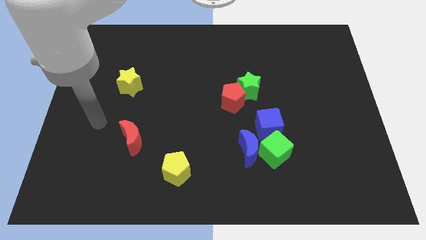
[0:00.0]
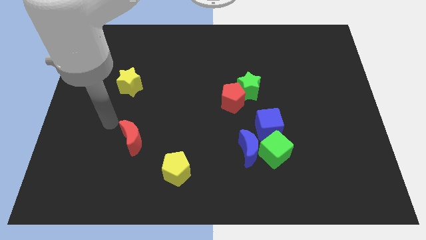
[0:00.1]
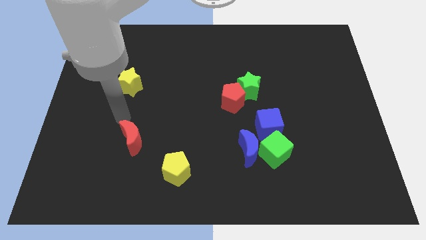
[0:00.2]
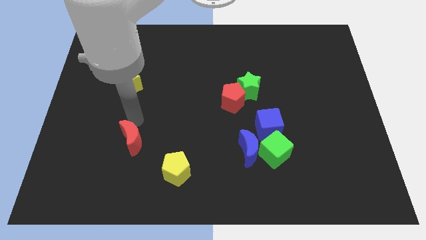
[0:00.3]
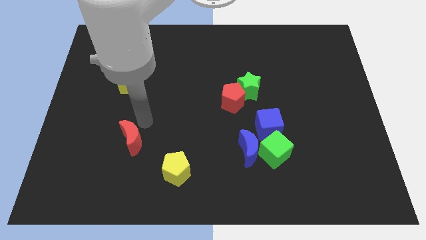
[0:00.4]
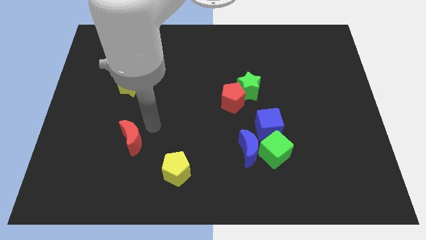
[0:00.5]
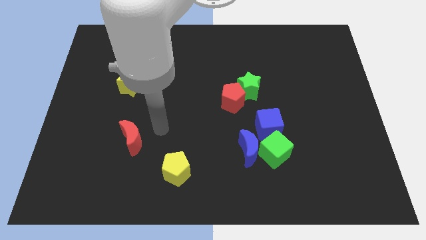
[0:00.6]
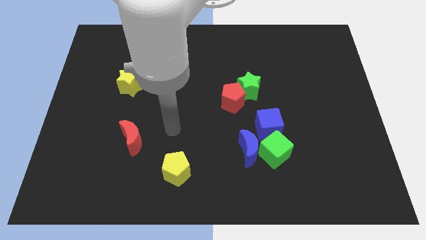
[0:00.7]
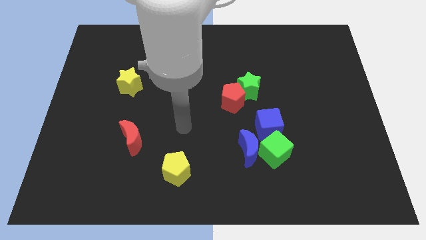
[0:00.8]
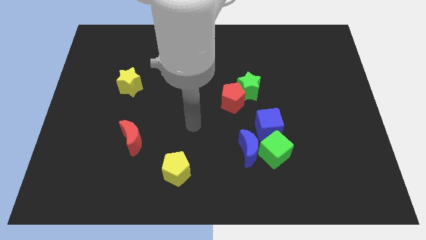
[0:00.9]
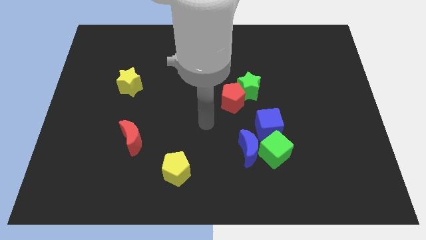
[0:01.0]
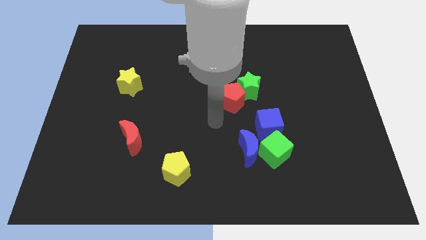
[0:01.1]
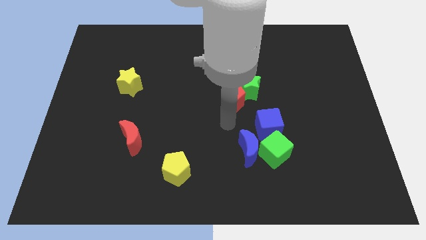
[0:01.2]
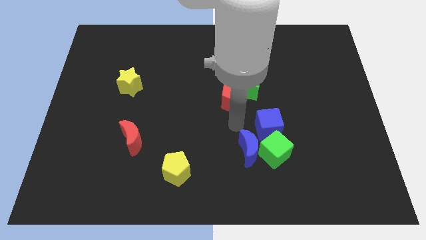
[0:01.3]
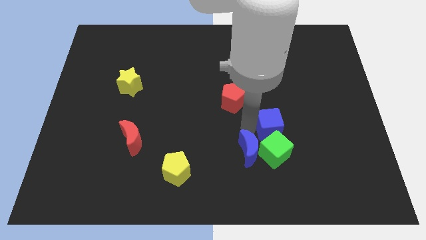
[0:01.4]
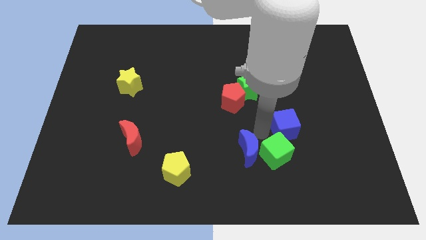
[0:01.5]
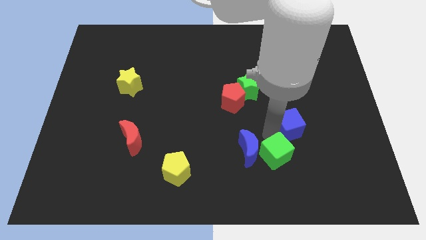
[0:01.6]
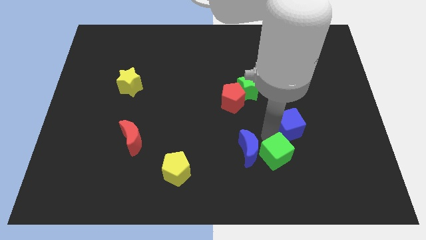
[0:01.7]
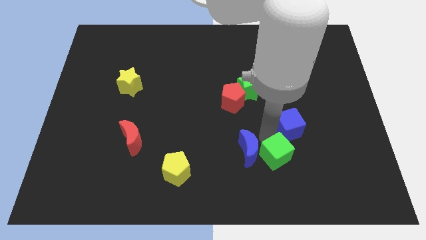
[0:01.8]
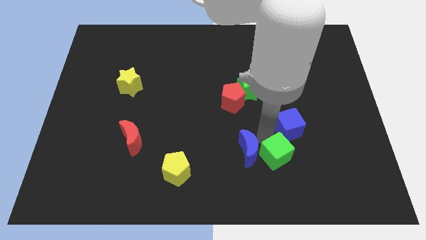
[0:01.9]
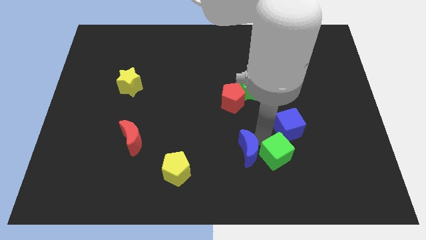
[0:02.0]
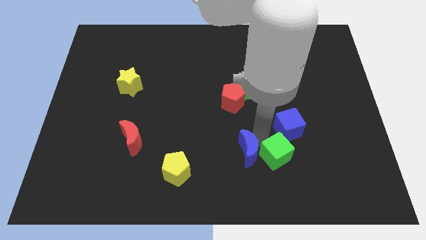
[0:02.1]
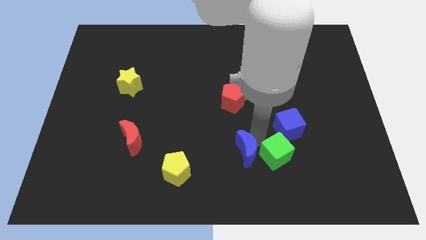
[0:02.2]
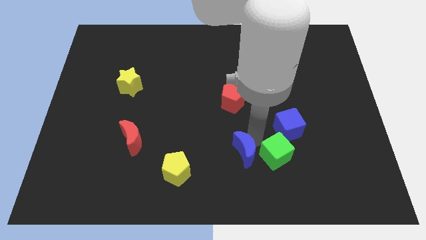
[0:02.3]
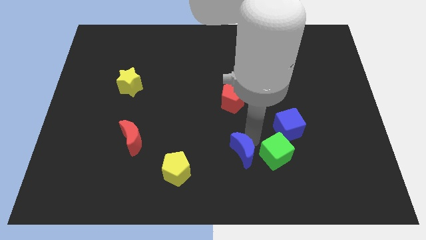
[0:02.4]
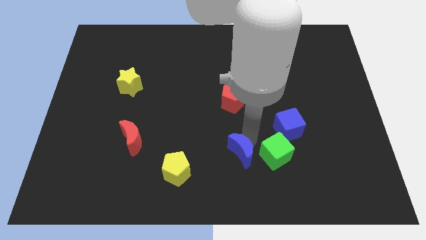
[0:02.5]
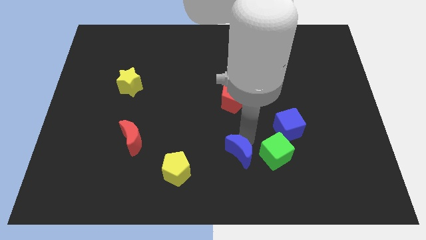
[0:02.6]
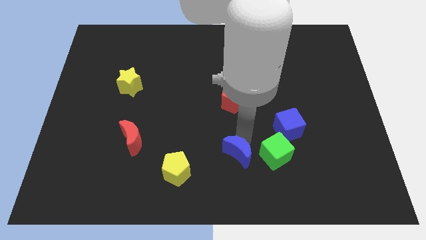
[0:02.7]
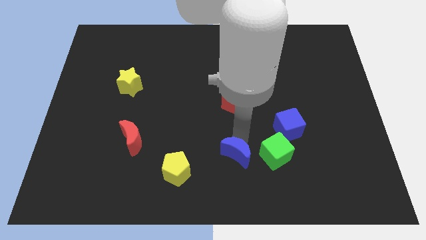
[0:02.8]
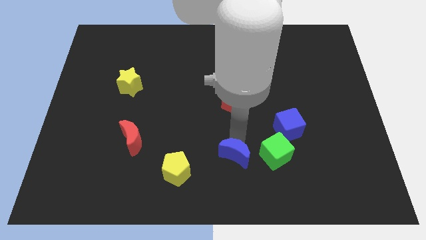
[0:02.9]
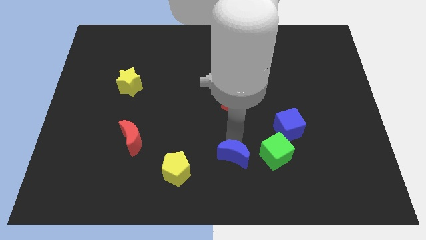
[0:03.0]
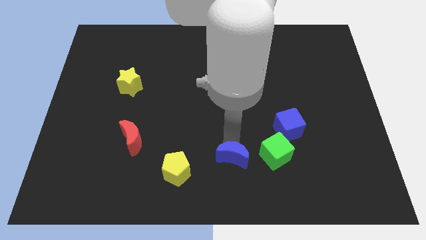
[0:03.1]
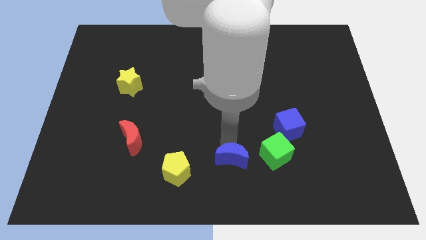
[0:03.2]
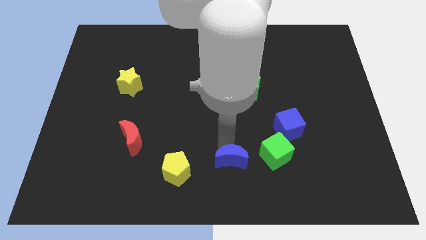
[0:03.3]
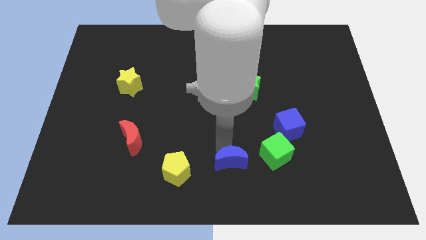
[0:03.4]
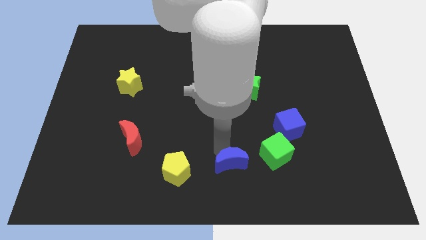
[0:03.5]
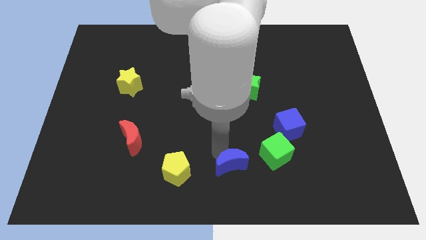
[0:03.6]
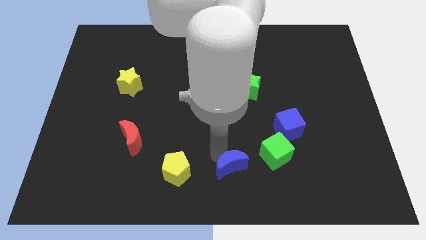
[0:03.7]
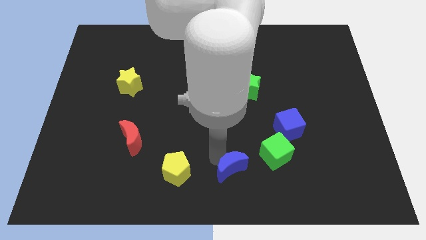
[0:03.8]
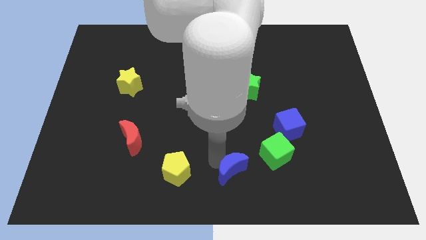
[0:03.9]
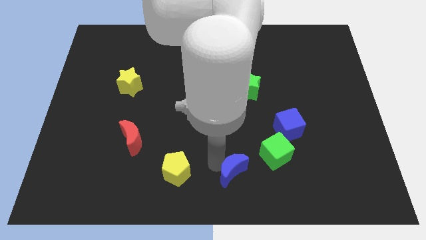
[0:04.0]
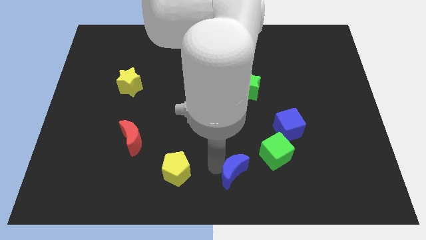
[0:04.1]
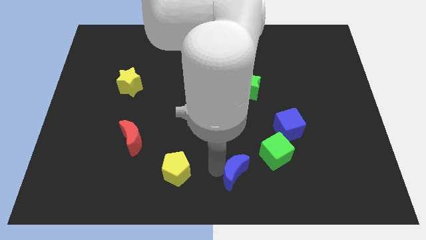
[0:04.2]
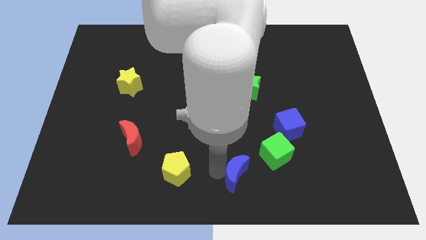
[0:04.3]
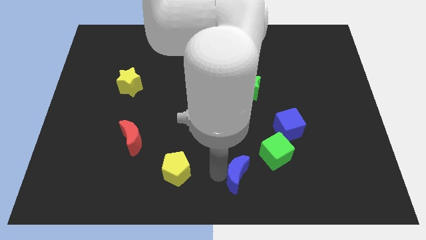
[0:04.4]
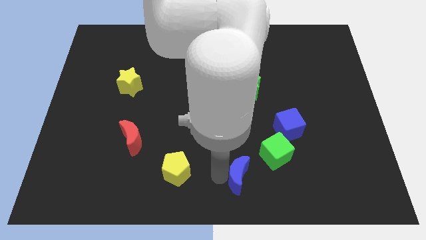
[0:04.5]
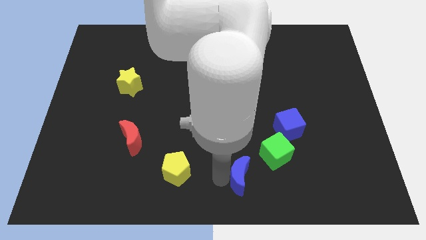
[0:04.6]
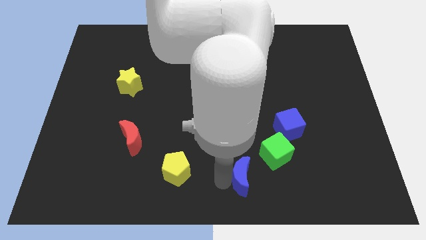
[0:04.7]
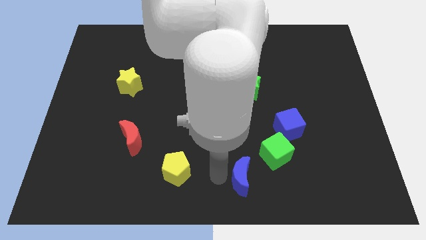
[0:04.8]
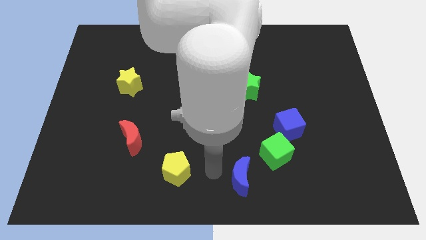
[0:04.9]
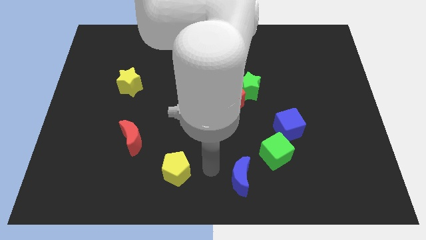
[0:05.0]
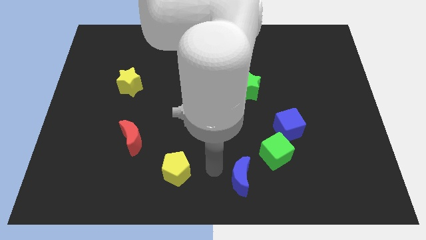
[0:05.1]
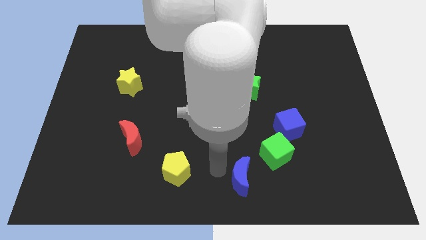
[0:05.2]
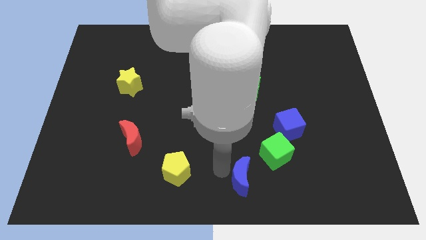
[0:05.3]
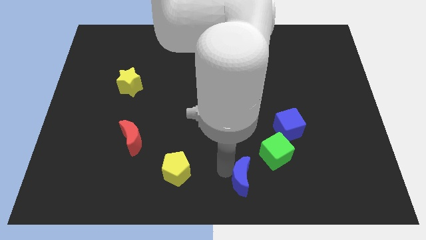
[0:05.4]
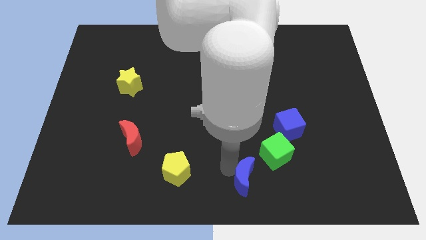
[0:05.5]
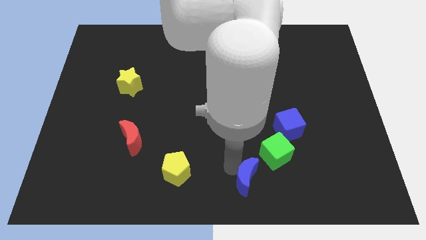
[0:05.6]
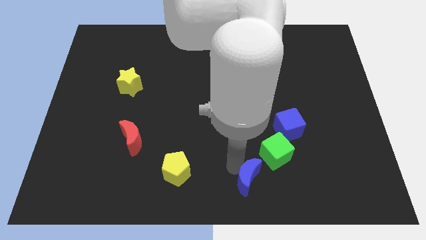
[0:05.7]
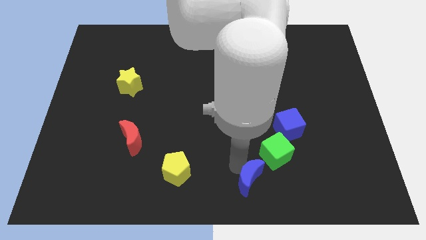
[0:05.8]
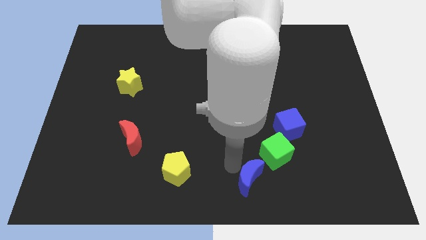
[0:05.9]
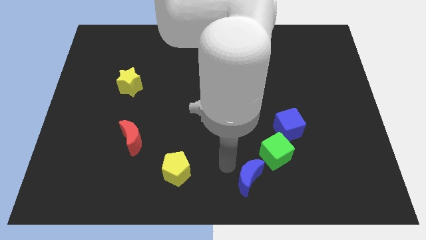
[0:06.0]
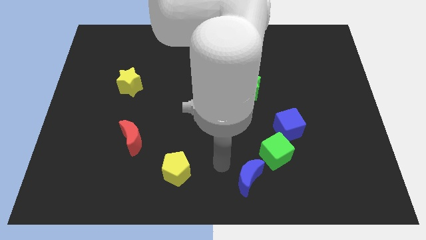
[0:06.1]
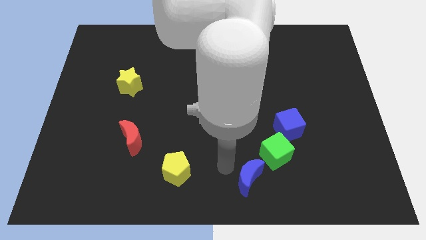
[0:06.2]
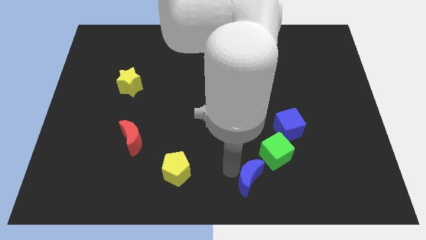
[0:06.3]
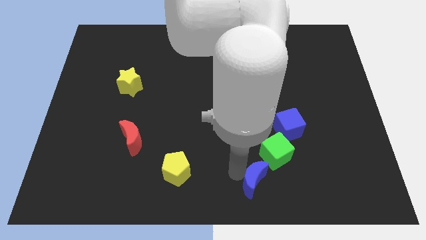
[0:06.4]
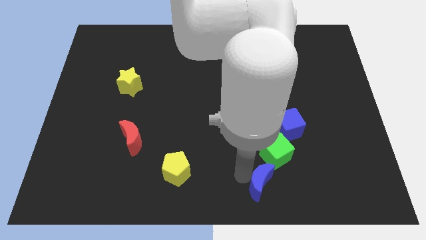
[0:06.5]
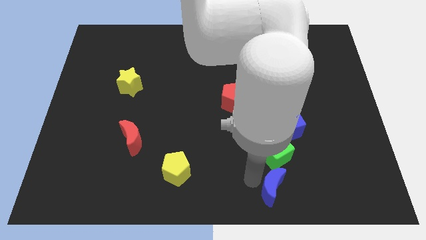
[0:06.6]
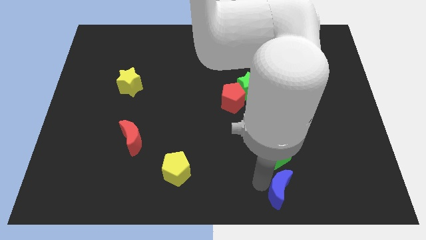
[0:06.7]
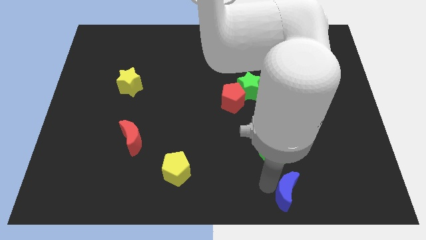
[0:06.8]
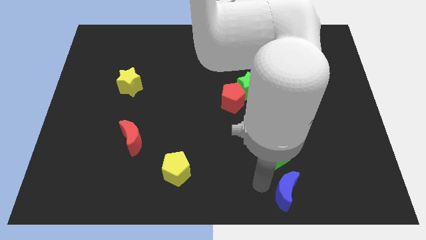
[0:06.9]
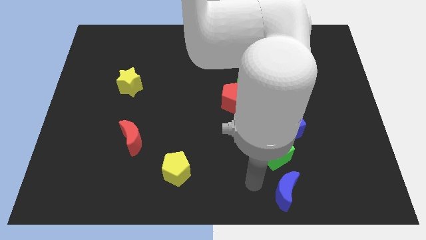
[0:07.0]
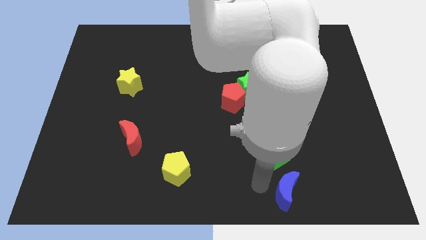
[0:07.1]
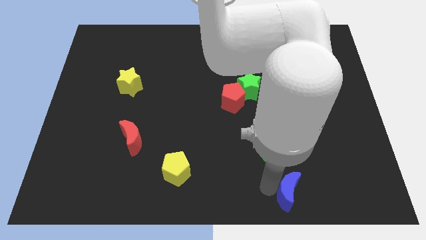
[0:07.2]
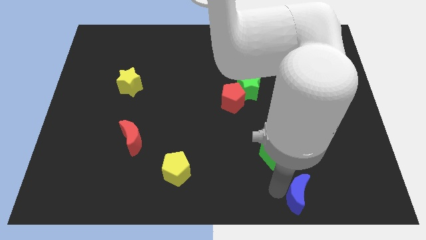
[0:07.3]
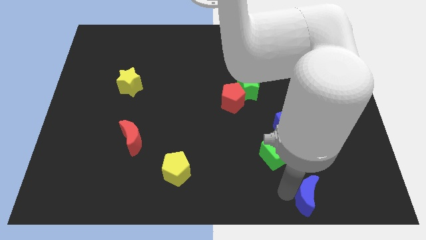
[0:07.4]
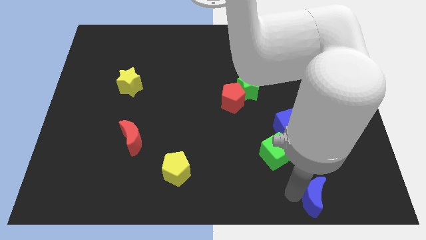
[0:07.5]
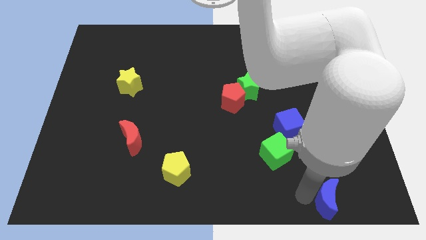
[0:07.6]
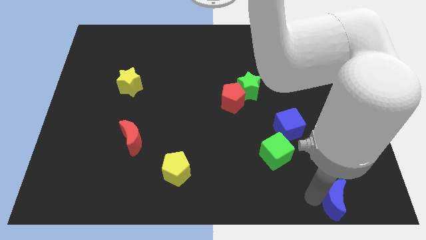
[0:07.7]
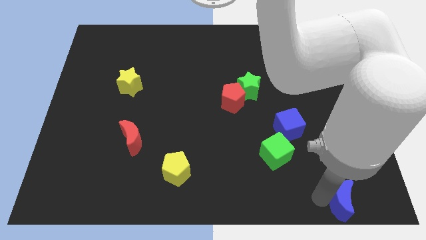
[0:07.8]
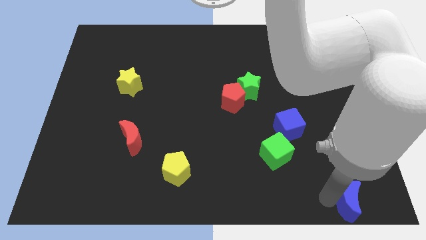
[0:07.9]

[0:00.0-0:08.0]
push the blue moon to the bottom right corner
